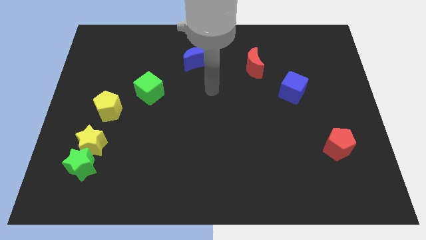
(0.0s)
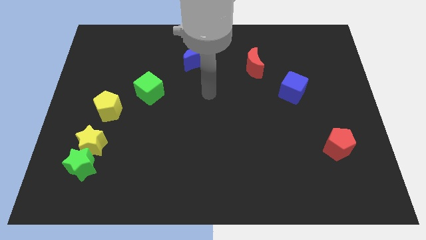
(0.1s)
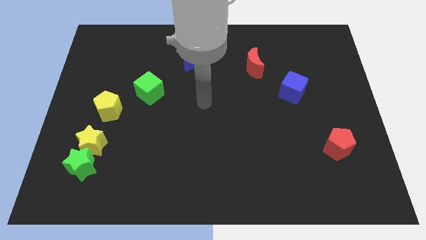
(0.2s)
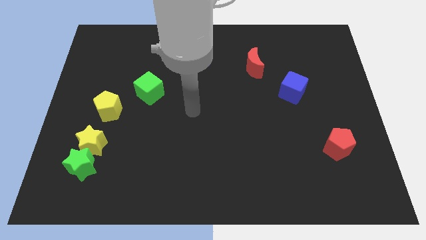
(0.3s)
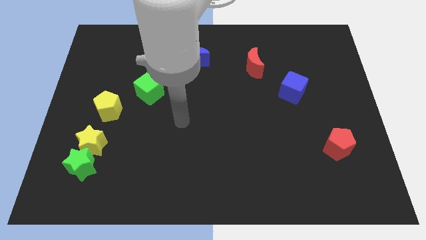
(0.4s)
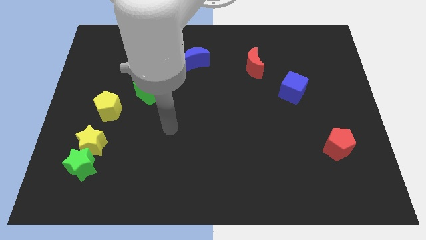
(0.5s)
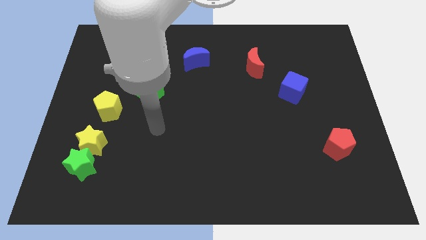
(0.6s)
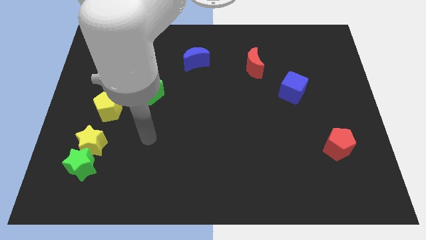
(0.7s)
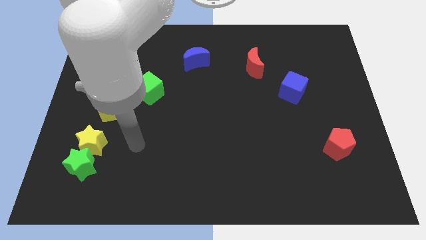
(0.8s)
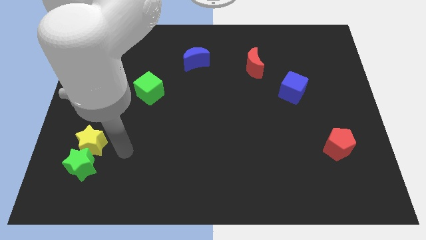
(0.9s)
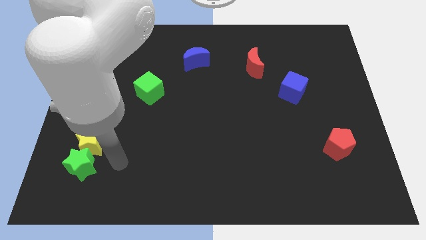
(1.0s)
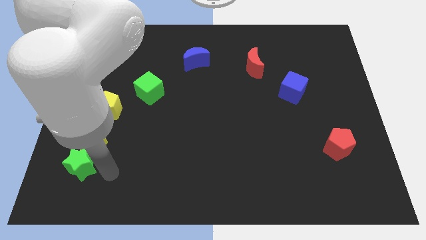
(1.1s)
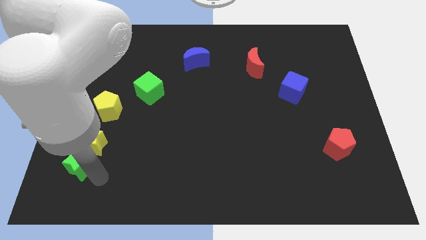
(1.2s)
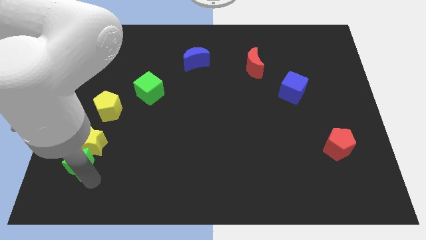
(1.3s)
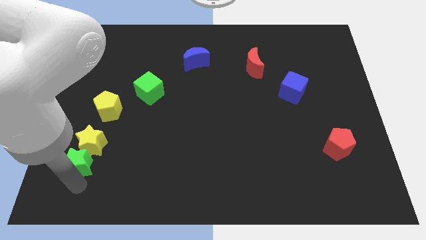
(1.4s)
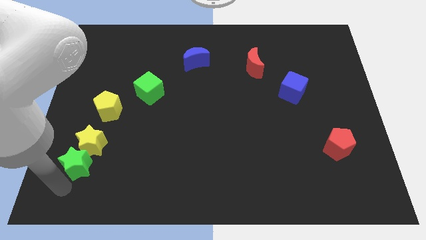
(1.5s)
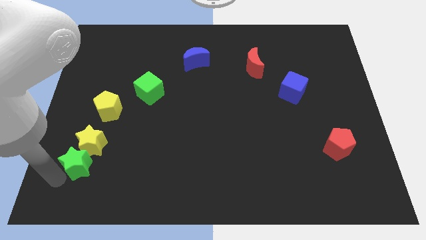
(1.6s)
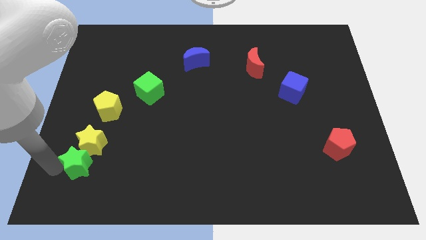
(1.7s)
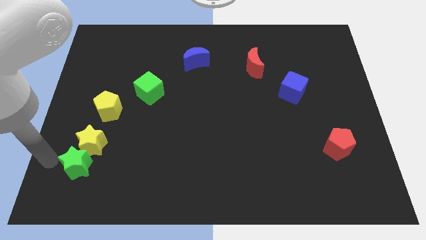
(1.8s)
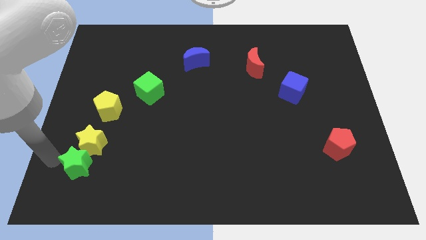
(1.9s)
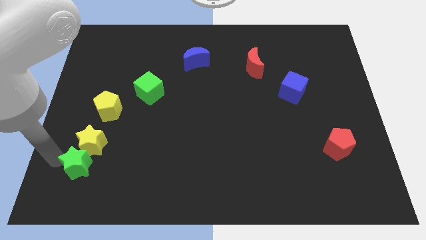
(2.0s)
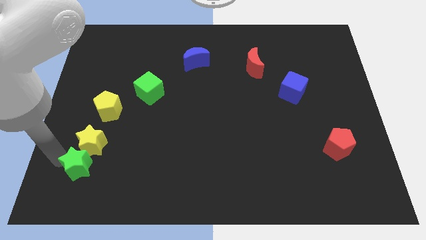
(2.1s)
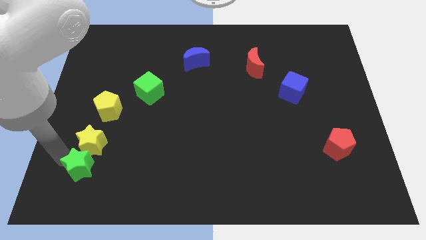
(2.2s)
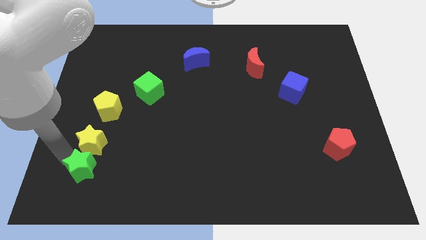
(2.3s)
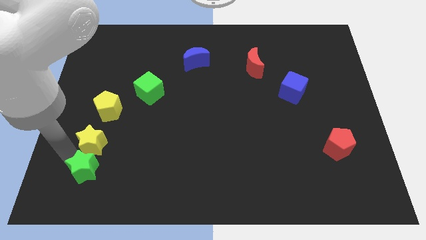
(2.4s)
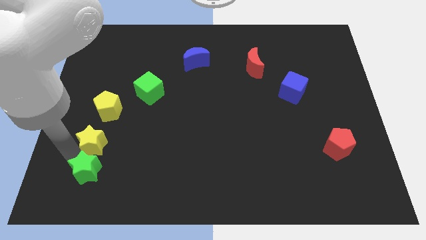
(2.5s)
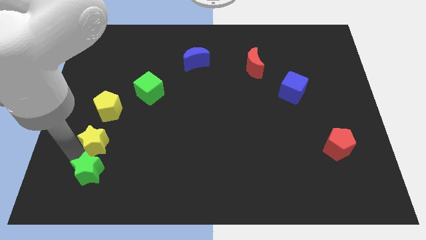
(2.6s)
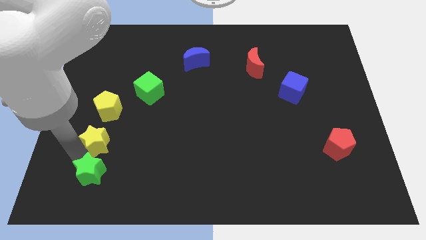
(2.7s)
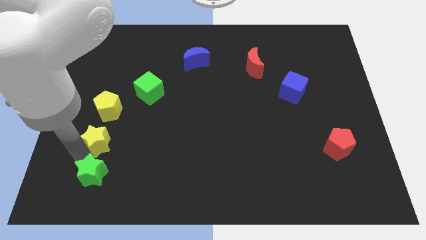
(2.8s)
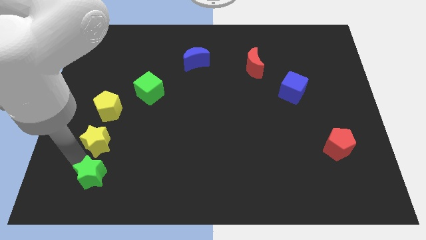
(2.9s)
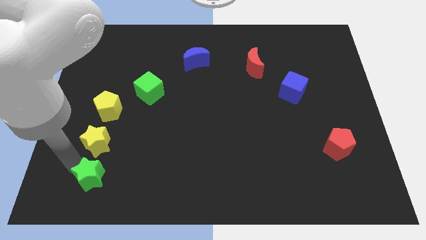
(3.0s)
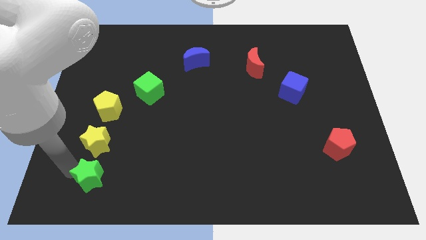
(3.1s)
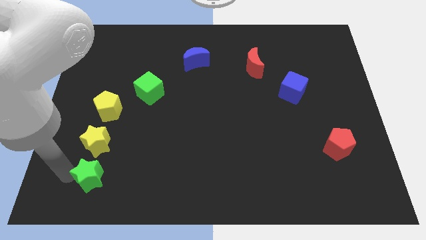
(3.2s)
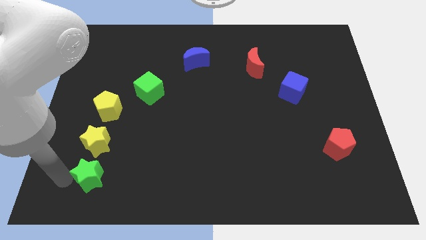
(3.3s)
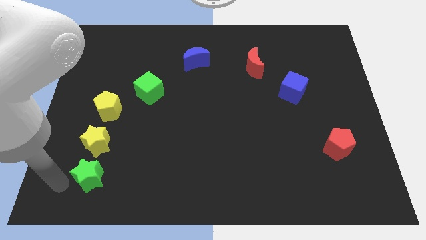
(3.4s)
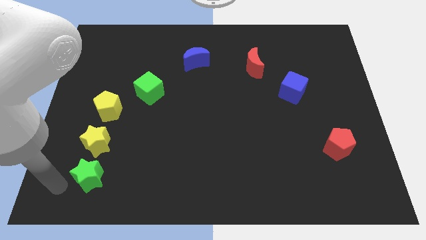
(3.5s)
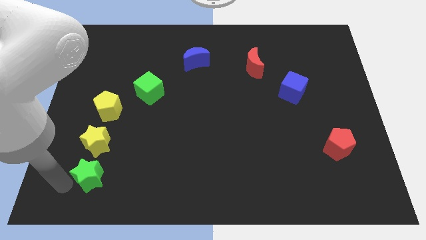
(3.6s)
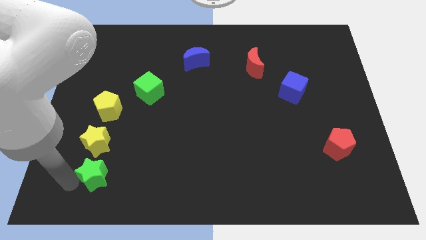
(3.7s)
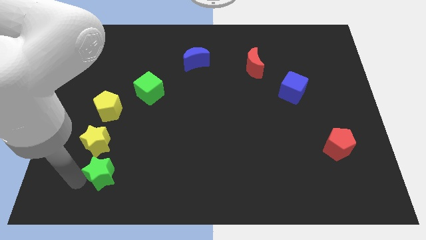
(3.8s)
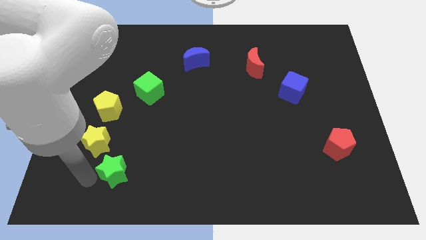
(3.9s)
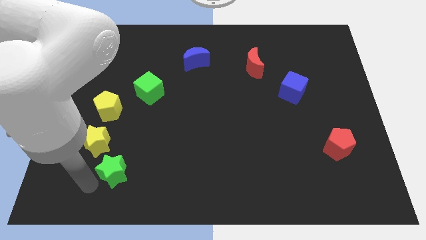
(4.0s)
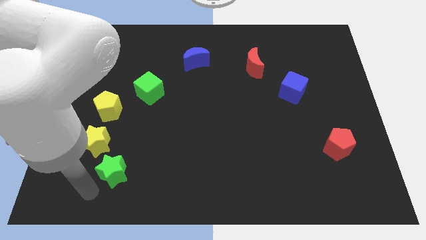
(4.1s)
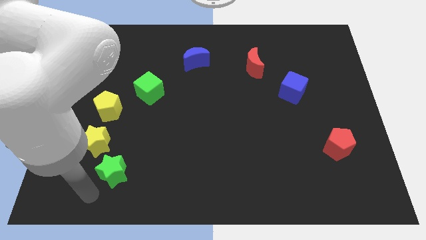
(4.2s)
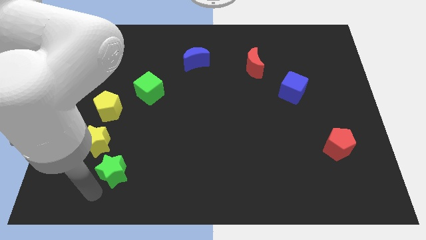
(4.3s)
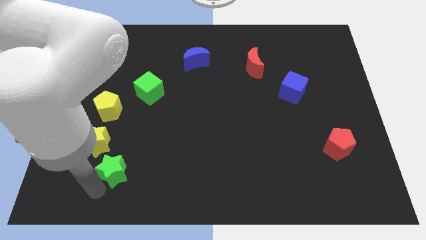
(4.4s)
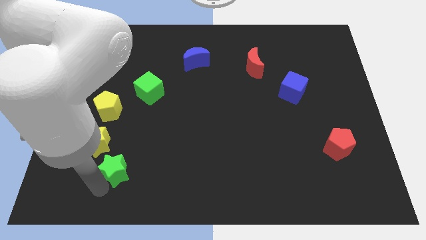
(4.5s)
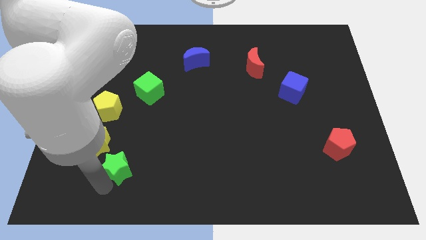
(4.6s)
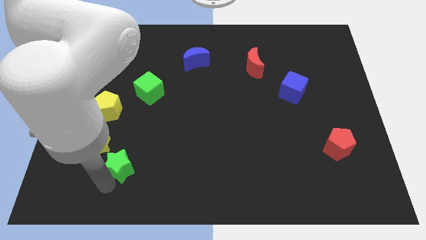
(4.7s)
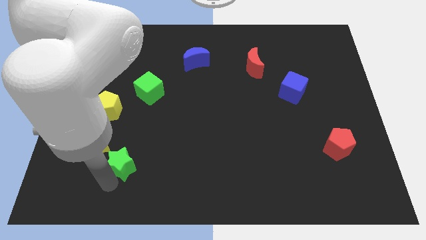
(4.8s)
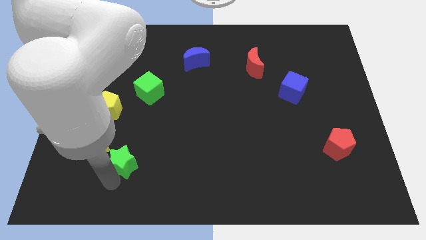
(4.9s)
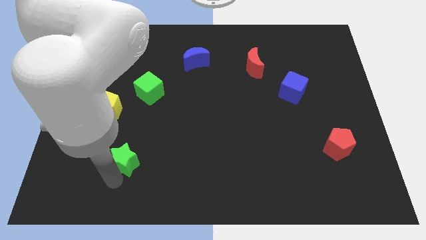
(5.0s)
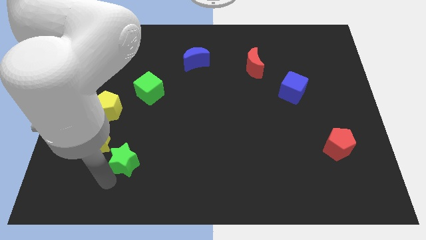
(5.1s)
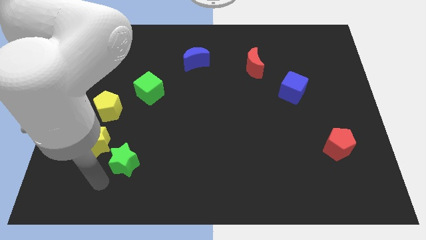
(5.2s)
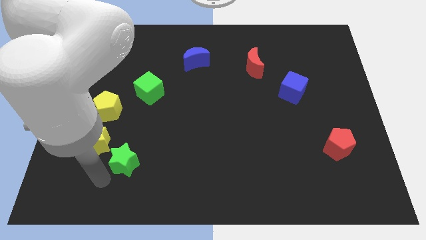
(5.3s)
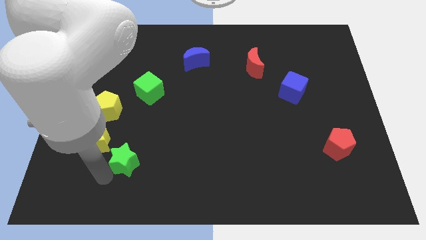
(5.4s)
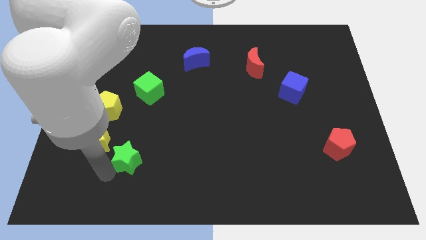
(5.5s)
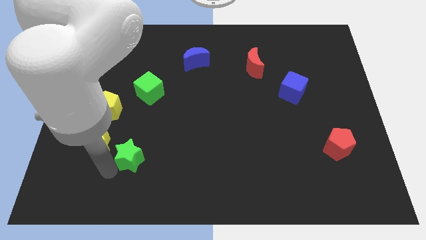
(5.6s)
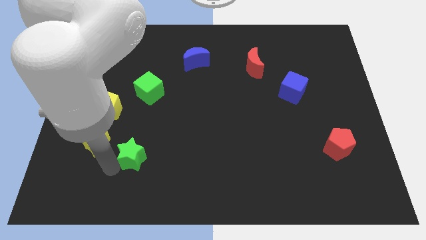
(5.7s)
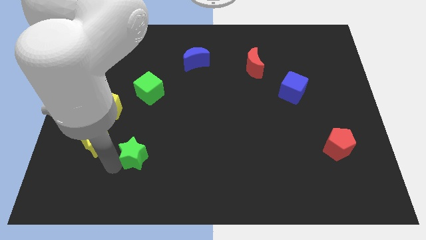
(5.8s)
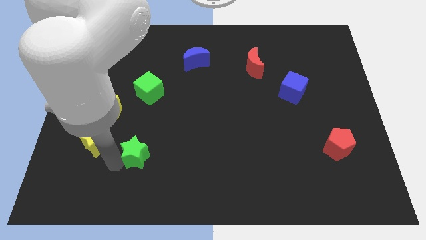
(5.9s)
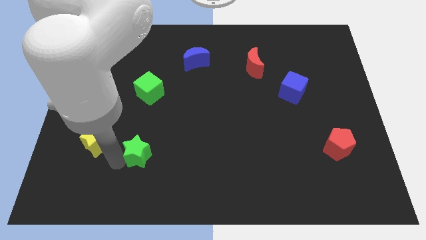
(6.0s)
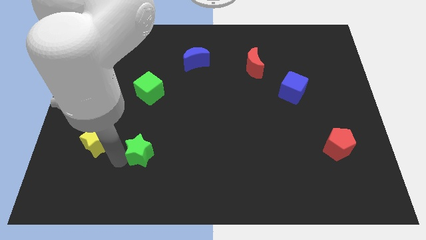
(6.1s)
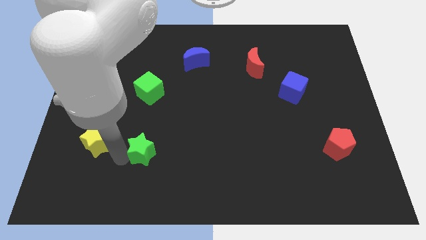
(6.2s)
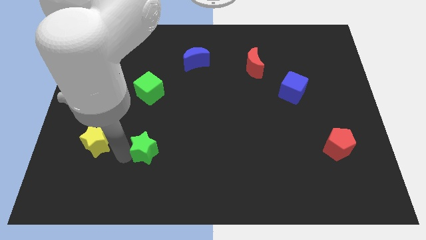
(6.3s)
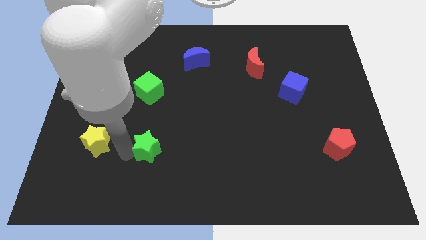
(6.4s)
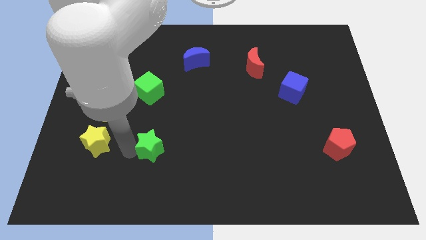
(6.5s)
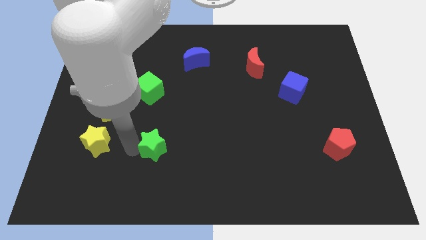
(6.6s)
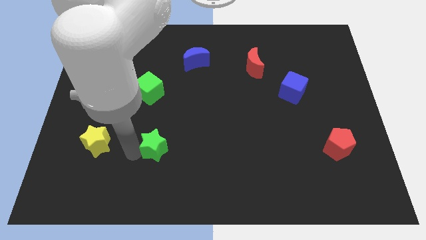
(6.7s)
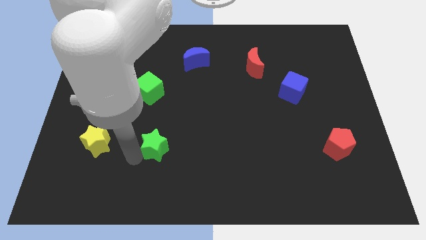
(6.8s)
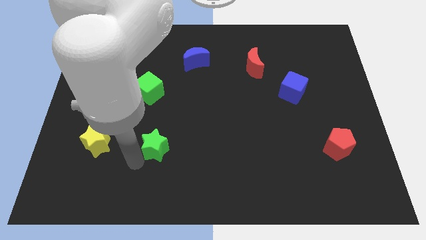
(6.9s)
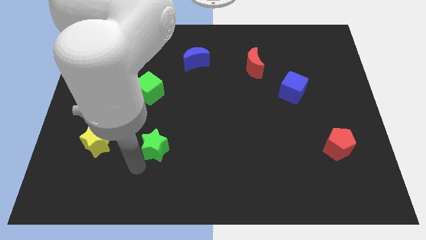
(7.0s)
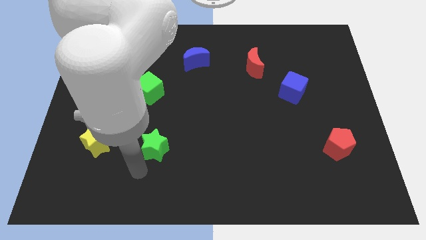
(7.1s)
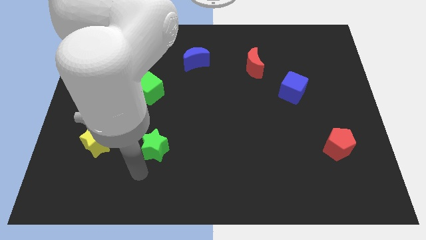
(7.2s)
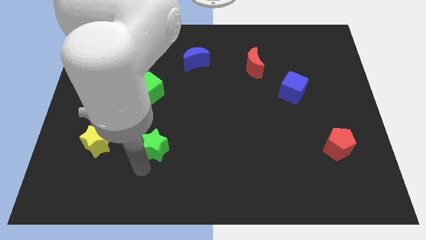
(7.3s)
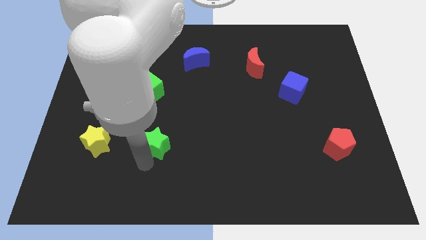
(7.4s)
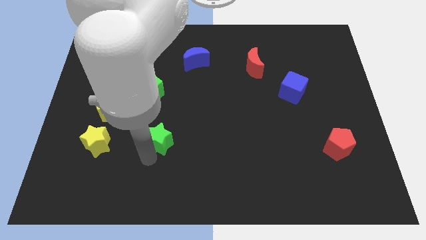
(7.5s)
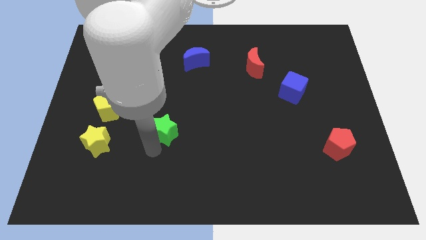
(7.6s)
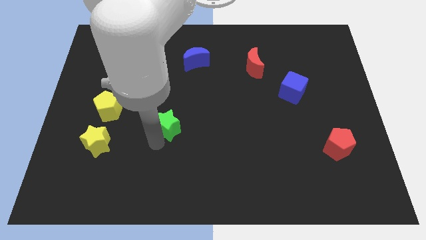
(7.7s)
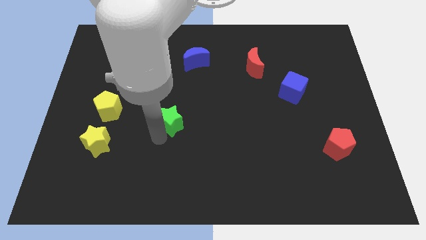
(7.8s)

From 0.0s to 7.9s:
put the green star to the center of the board
